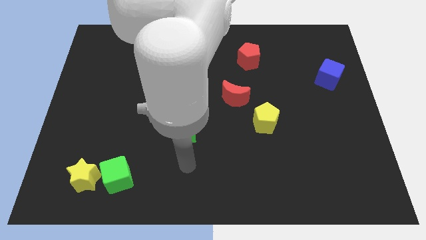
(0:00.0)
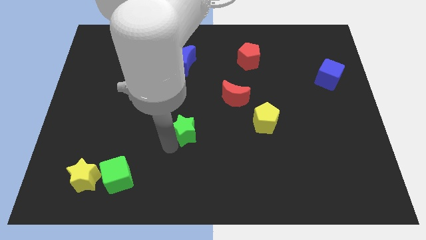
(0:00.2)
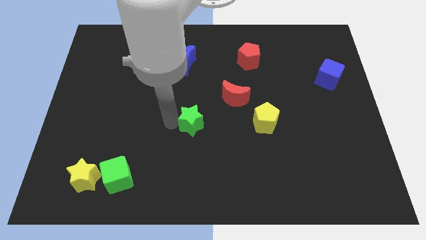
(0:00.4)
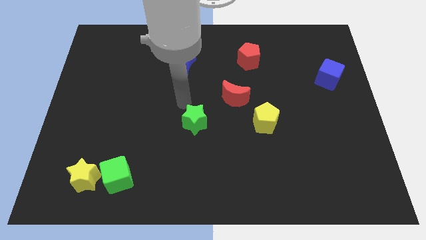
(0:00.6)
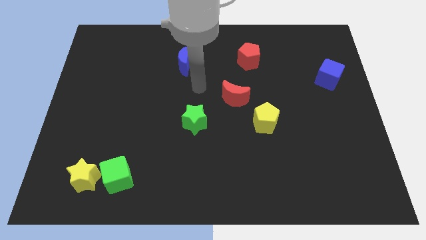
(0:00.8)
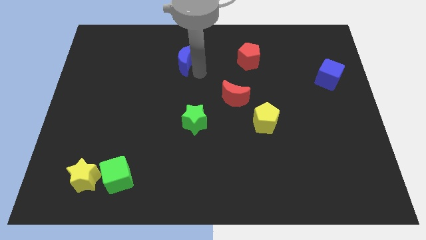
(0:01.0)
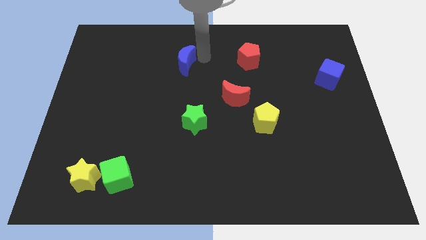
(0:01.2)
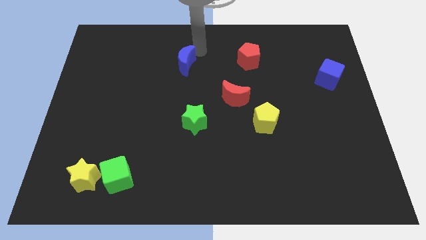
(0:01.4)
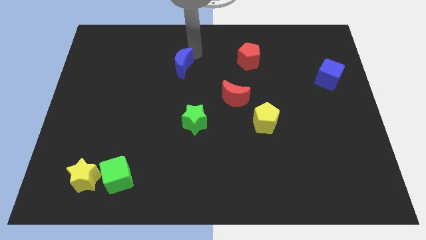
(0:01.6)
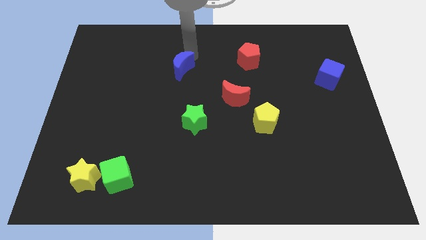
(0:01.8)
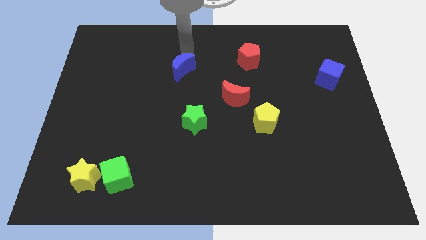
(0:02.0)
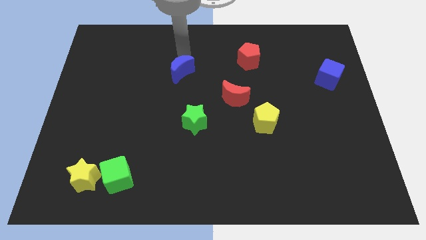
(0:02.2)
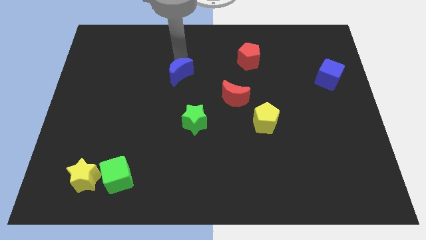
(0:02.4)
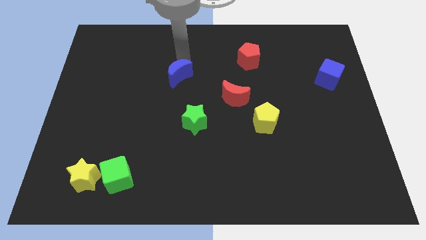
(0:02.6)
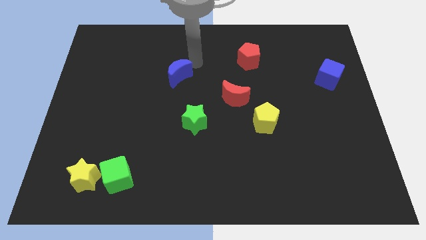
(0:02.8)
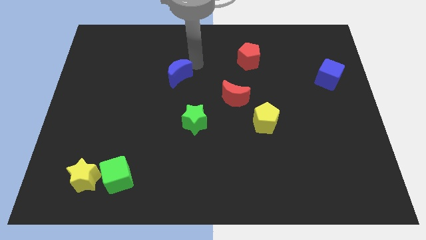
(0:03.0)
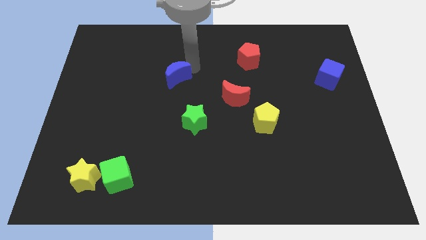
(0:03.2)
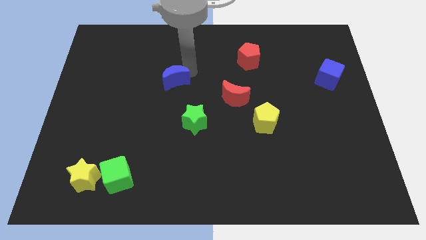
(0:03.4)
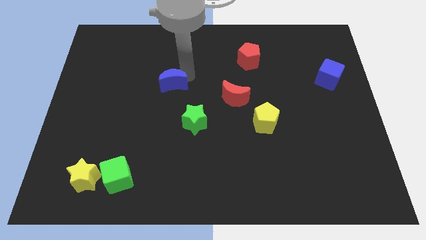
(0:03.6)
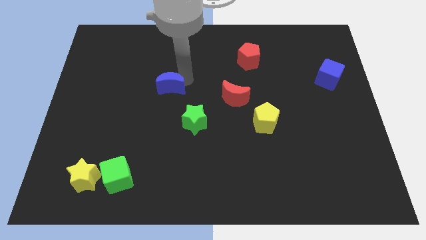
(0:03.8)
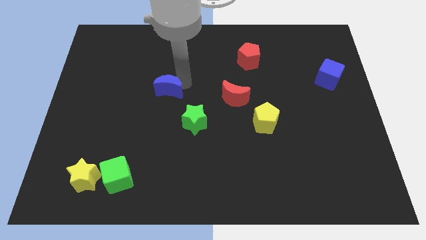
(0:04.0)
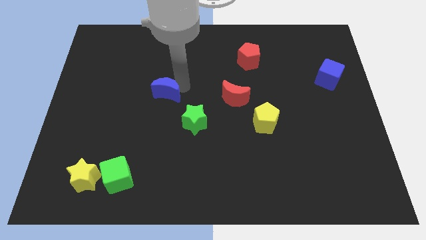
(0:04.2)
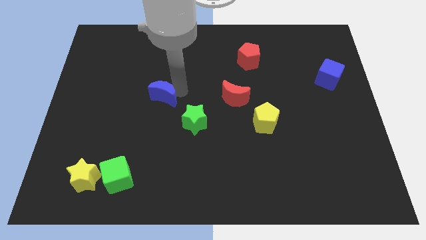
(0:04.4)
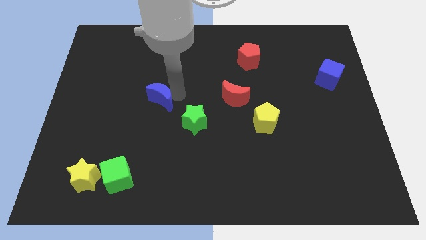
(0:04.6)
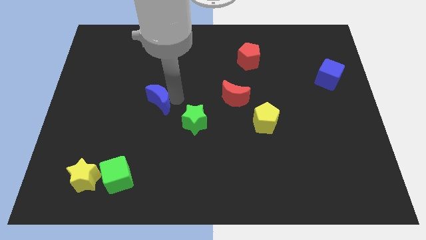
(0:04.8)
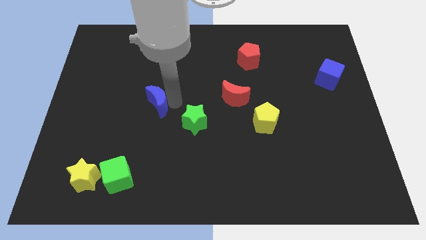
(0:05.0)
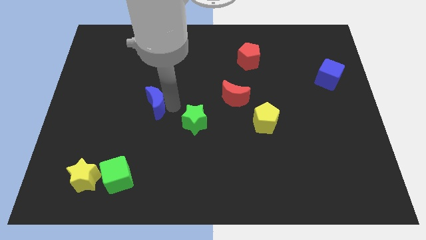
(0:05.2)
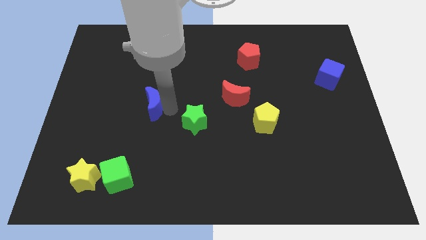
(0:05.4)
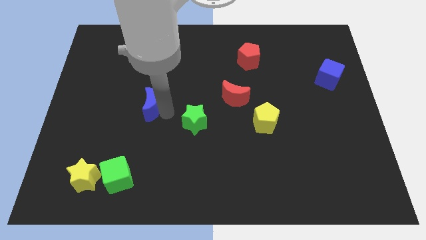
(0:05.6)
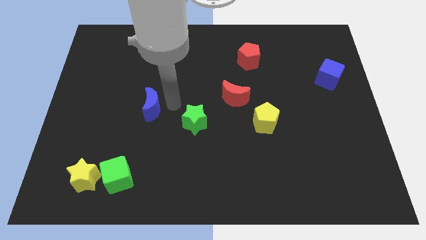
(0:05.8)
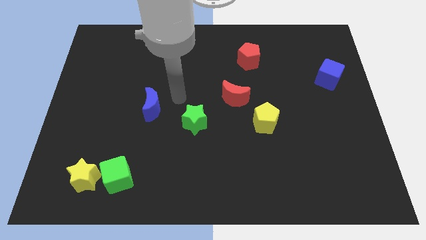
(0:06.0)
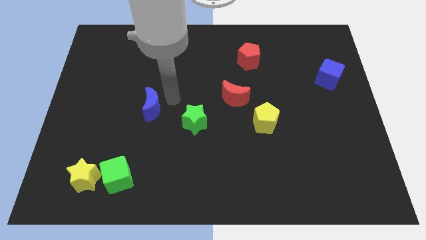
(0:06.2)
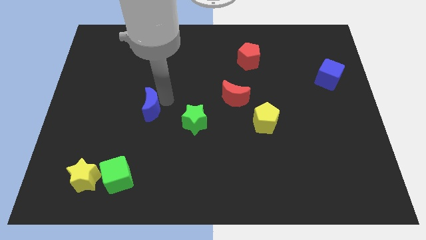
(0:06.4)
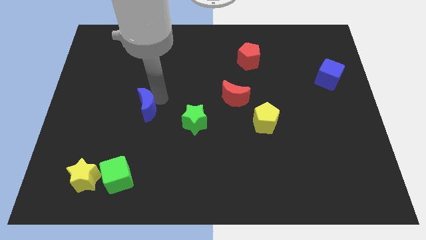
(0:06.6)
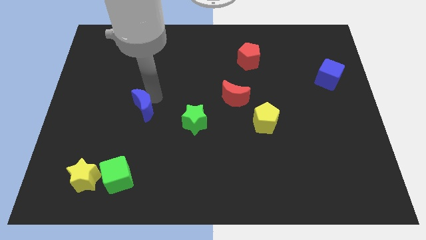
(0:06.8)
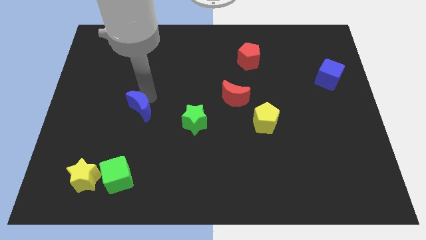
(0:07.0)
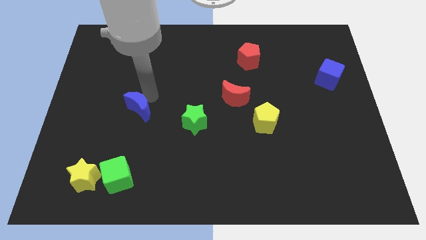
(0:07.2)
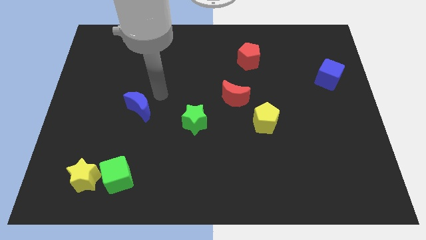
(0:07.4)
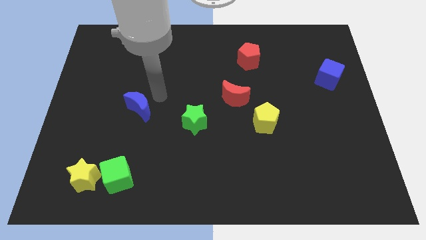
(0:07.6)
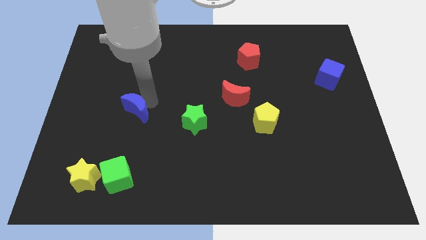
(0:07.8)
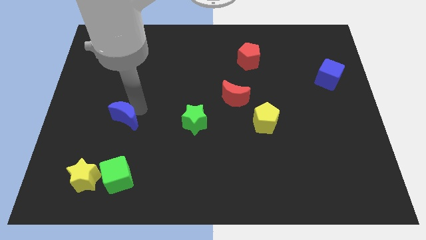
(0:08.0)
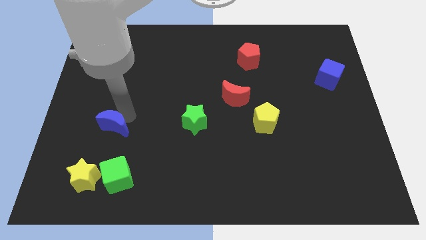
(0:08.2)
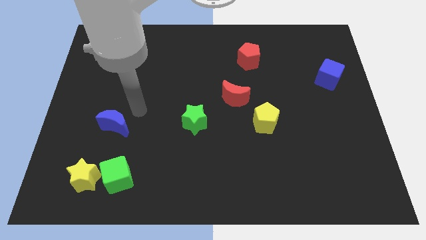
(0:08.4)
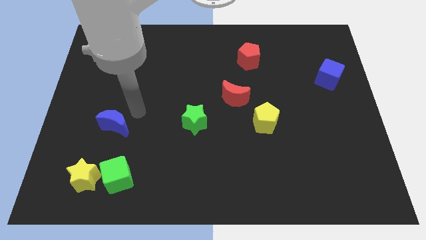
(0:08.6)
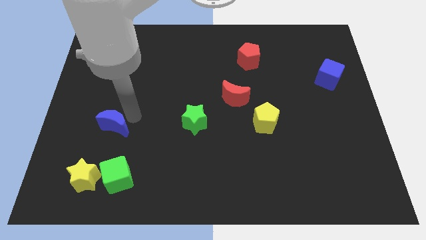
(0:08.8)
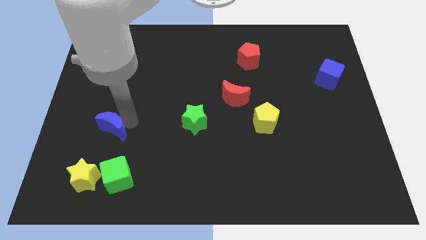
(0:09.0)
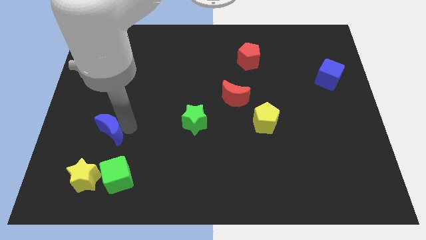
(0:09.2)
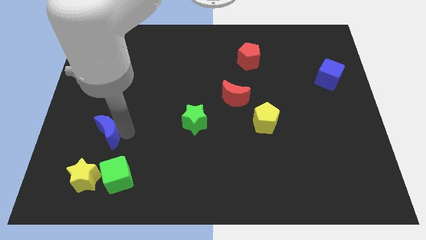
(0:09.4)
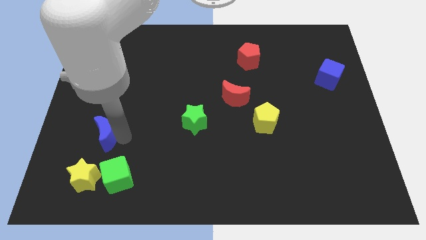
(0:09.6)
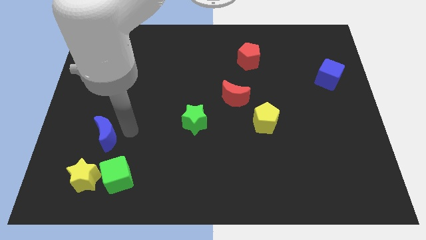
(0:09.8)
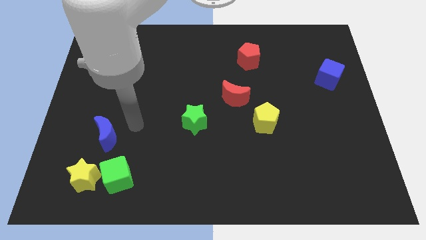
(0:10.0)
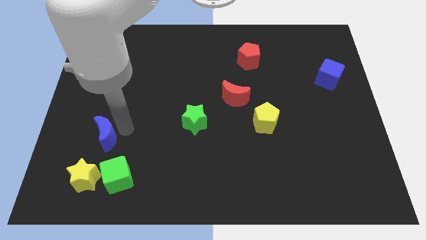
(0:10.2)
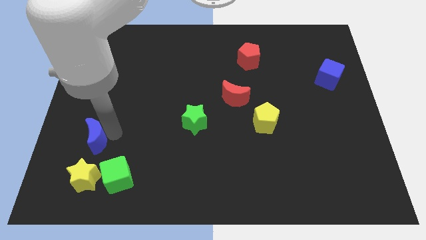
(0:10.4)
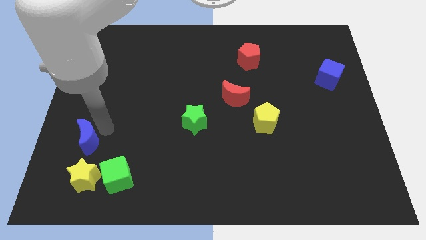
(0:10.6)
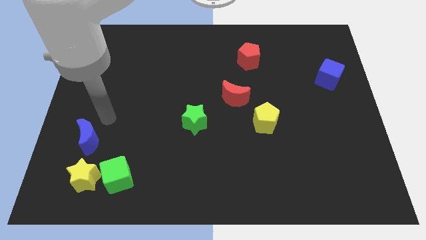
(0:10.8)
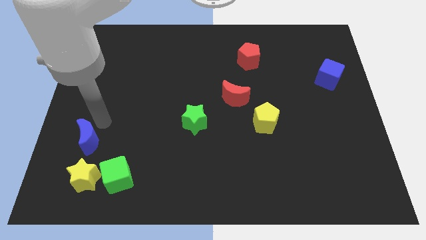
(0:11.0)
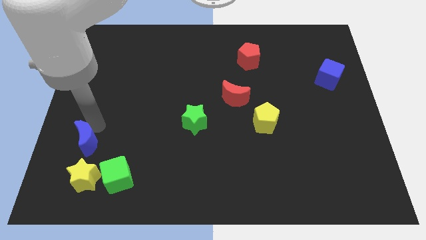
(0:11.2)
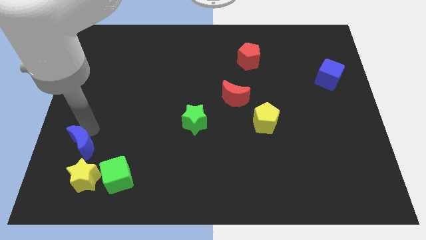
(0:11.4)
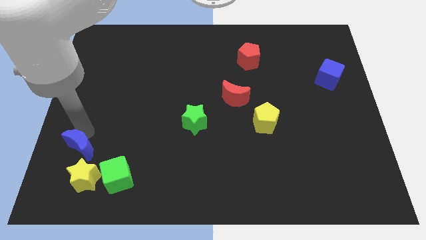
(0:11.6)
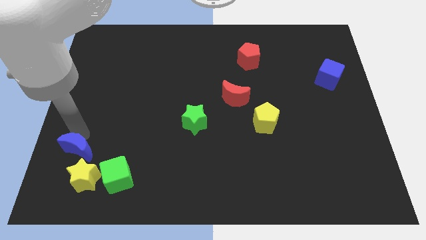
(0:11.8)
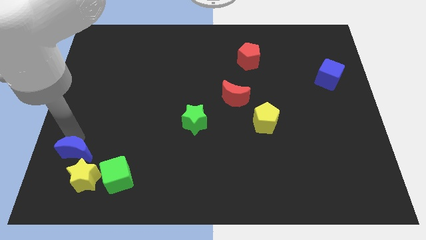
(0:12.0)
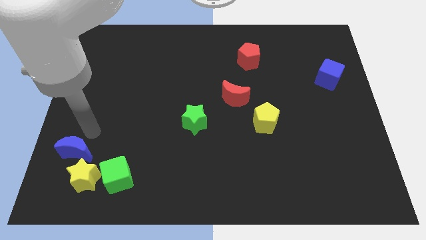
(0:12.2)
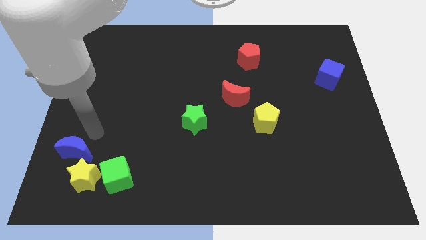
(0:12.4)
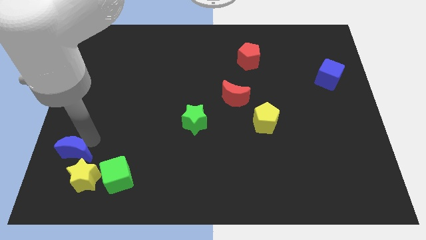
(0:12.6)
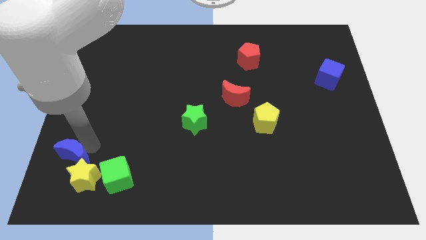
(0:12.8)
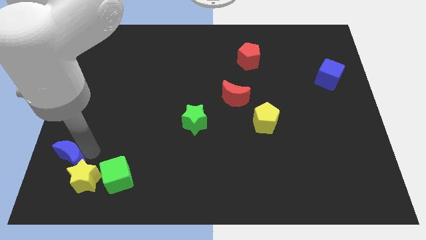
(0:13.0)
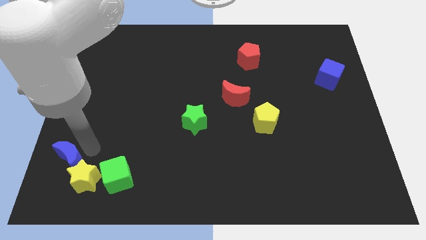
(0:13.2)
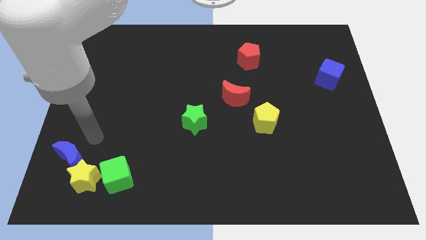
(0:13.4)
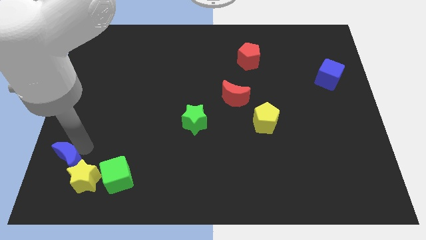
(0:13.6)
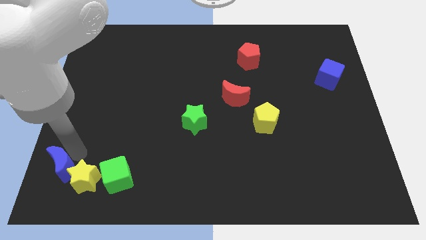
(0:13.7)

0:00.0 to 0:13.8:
slide the blue moon to the bottom left of the board

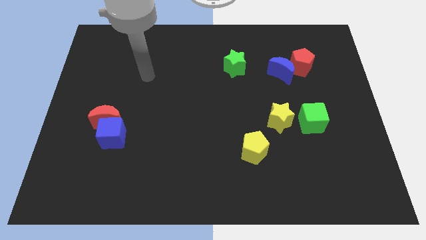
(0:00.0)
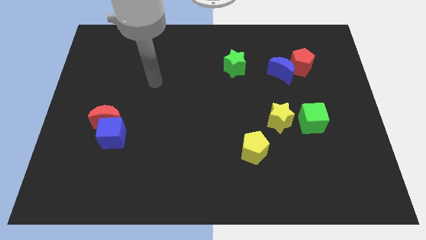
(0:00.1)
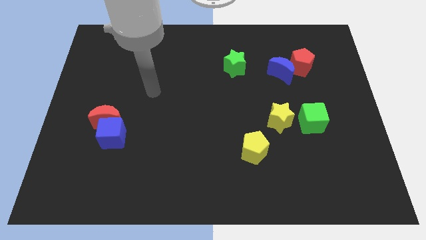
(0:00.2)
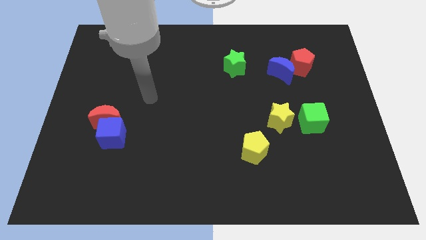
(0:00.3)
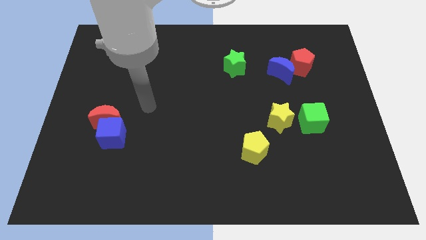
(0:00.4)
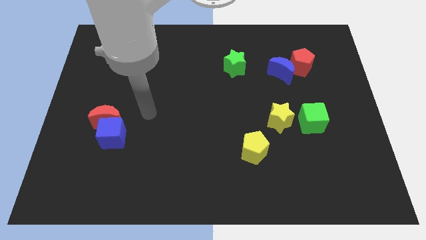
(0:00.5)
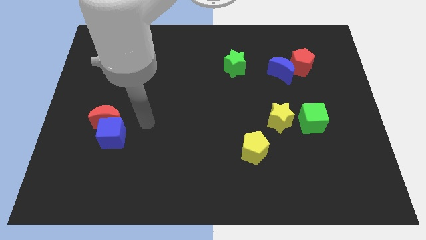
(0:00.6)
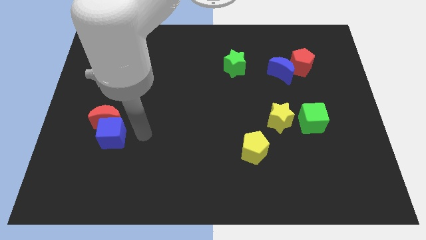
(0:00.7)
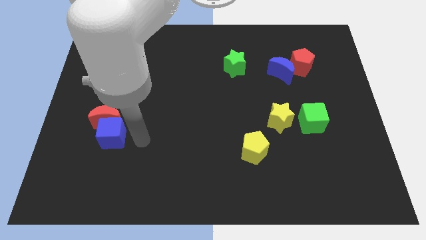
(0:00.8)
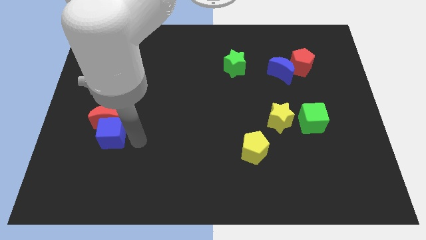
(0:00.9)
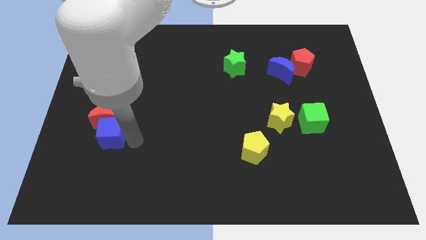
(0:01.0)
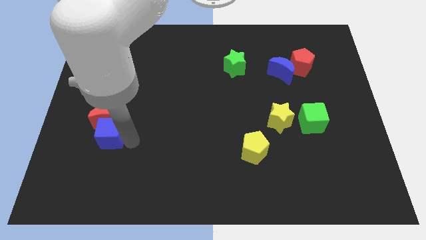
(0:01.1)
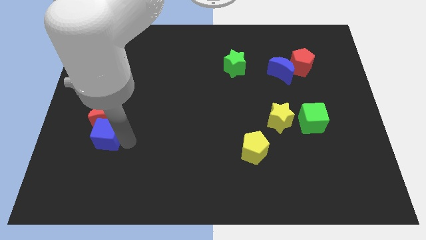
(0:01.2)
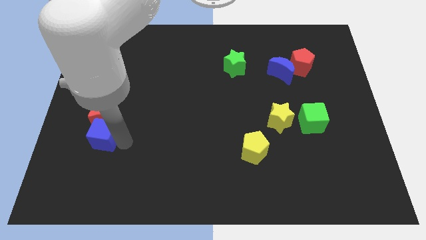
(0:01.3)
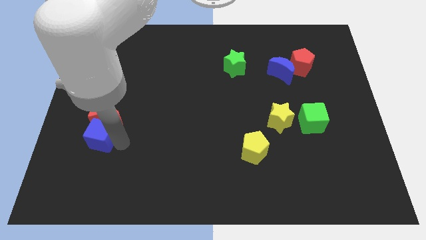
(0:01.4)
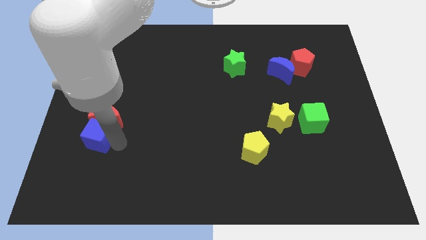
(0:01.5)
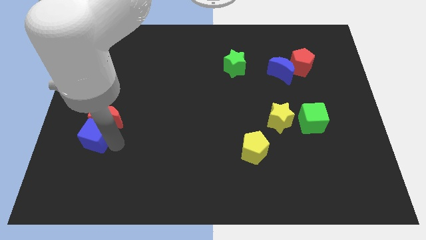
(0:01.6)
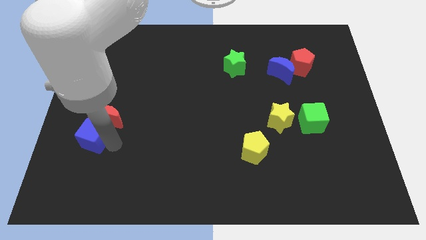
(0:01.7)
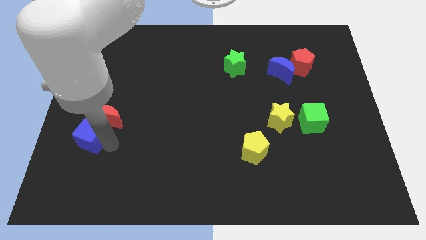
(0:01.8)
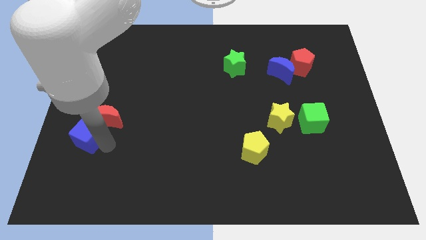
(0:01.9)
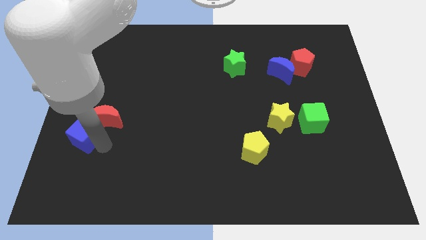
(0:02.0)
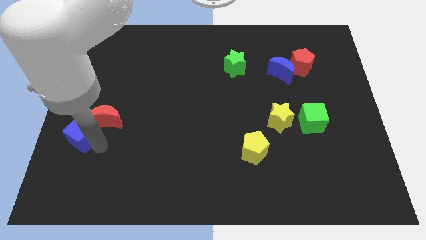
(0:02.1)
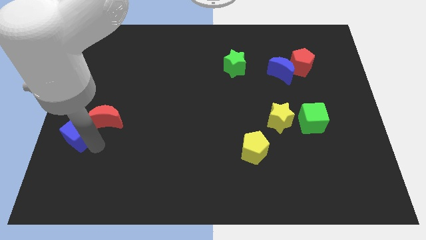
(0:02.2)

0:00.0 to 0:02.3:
put the blue cube to the left side of the board
